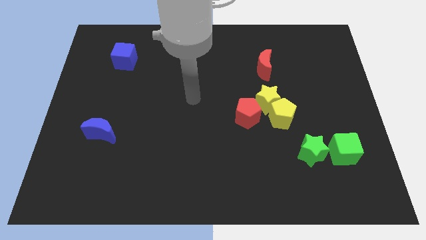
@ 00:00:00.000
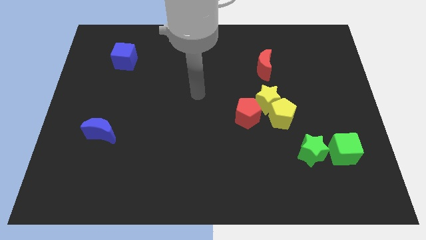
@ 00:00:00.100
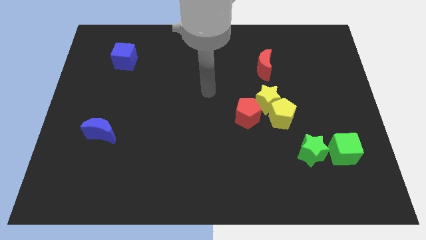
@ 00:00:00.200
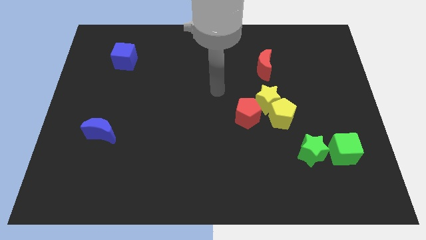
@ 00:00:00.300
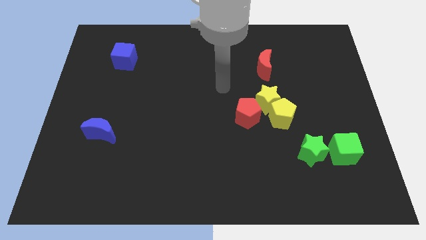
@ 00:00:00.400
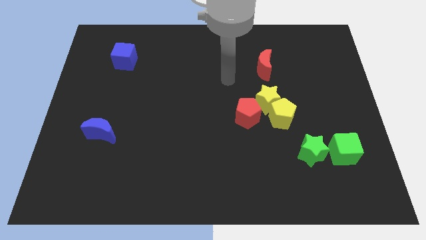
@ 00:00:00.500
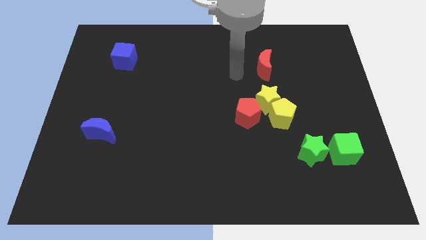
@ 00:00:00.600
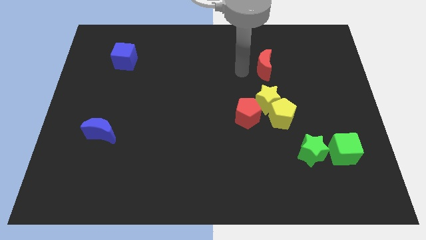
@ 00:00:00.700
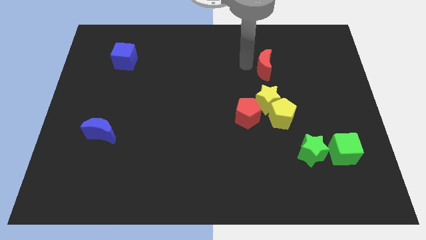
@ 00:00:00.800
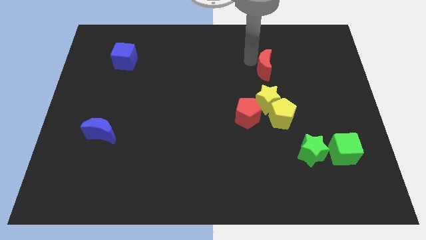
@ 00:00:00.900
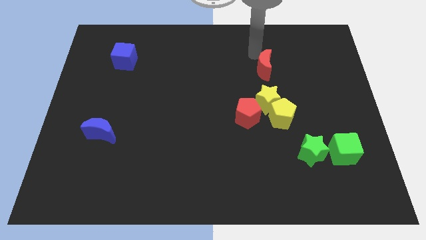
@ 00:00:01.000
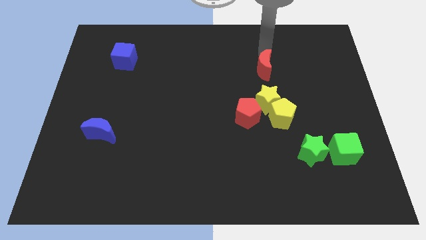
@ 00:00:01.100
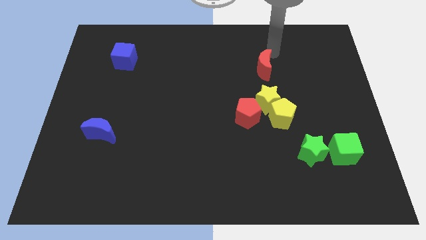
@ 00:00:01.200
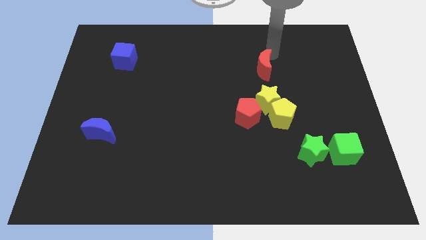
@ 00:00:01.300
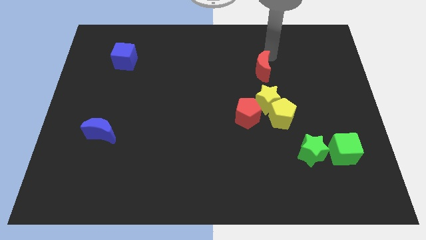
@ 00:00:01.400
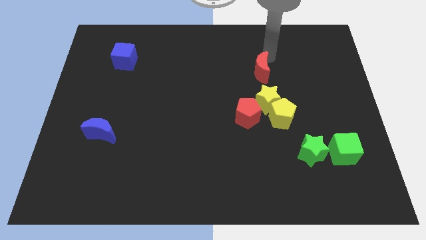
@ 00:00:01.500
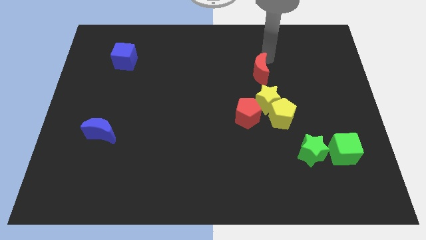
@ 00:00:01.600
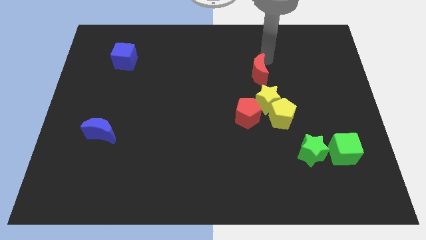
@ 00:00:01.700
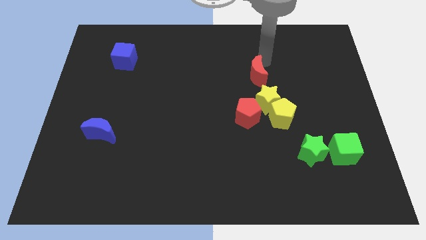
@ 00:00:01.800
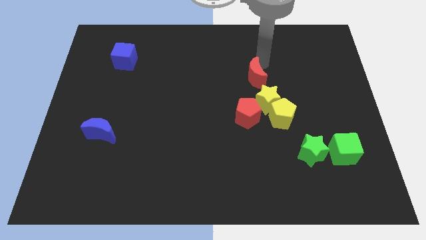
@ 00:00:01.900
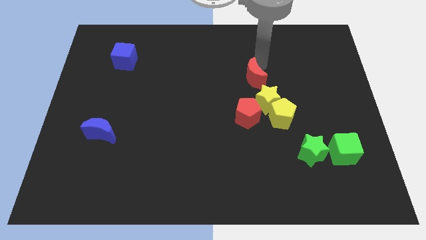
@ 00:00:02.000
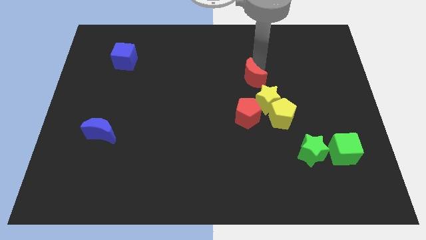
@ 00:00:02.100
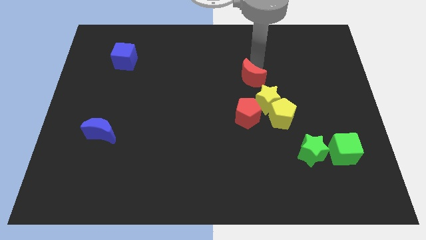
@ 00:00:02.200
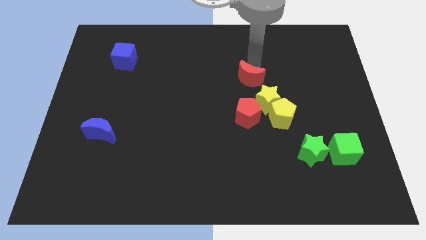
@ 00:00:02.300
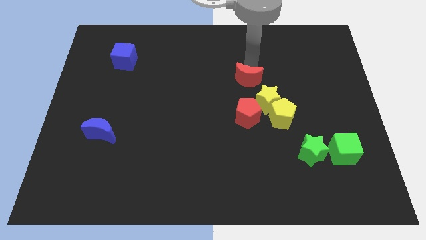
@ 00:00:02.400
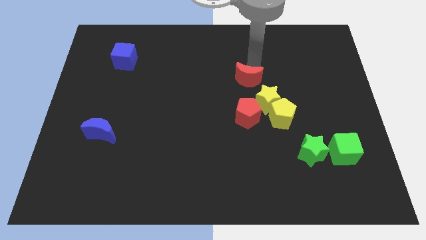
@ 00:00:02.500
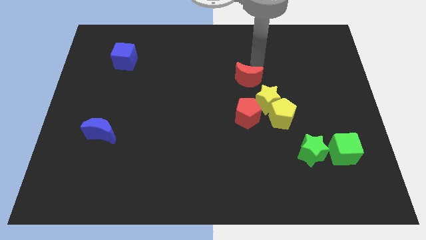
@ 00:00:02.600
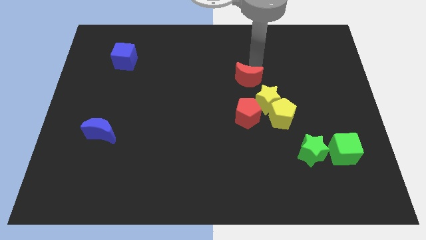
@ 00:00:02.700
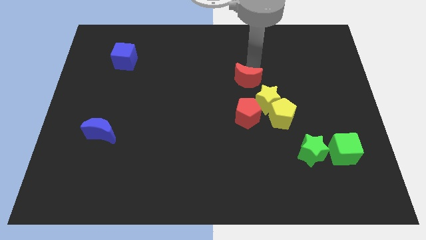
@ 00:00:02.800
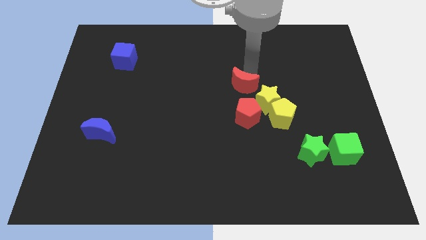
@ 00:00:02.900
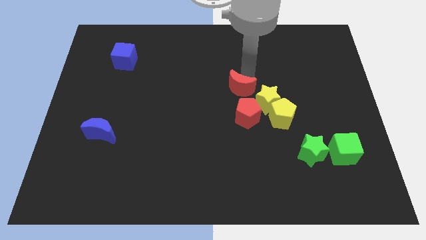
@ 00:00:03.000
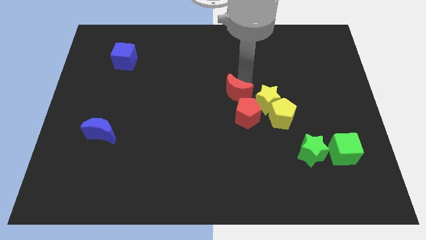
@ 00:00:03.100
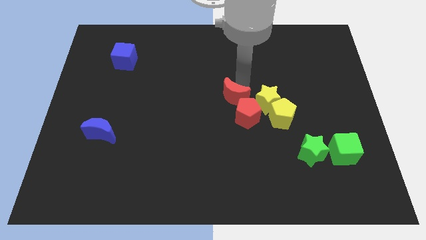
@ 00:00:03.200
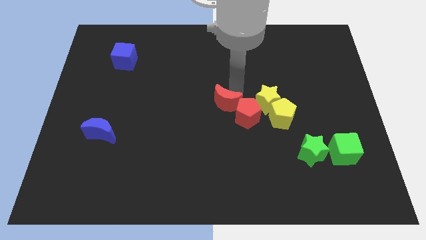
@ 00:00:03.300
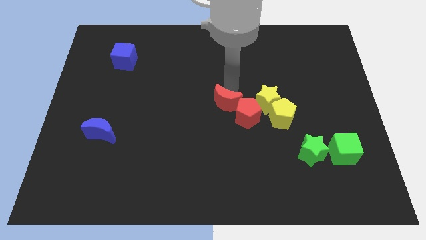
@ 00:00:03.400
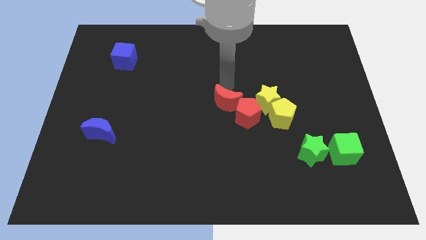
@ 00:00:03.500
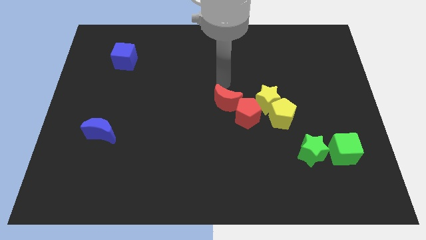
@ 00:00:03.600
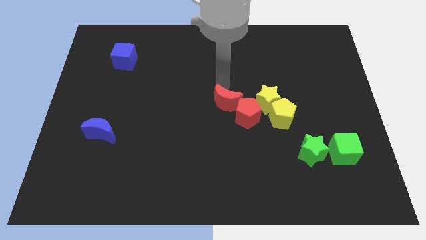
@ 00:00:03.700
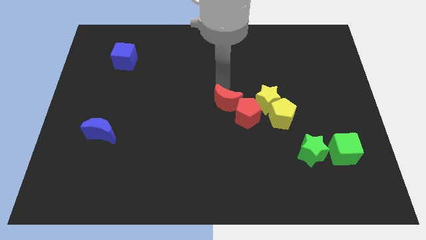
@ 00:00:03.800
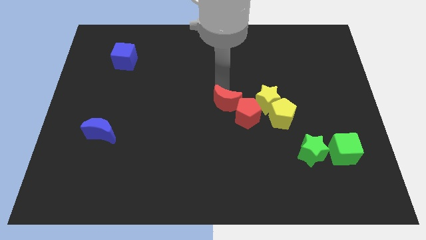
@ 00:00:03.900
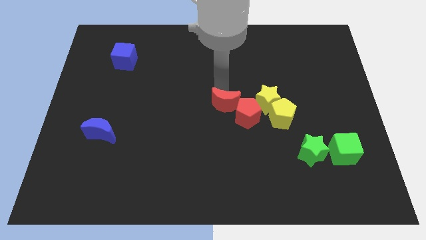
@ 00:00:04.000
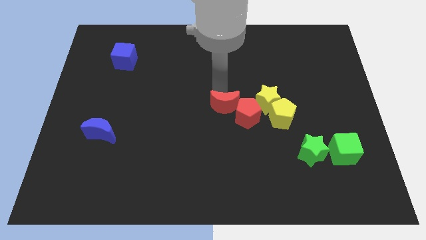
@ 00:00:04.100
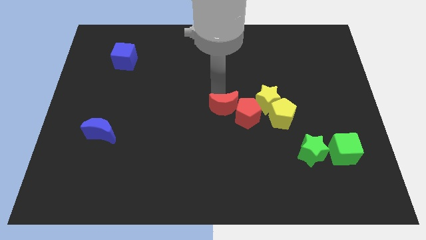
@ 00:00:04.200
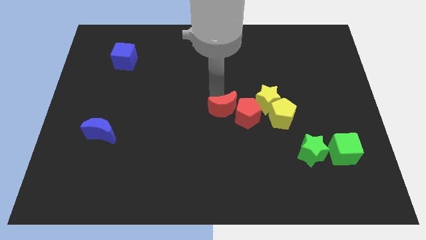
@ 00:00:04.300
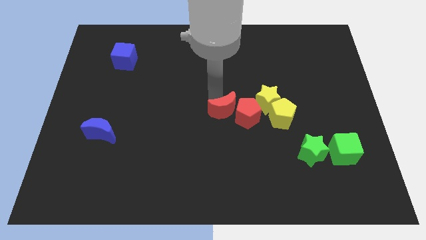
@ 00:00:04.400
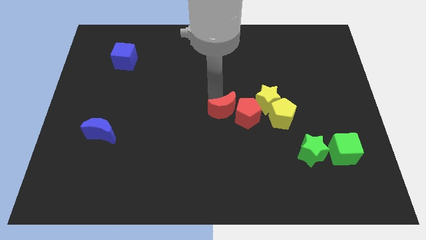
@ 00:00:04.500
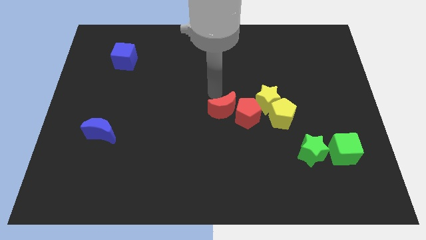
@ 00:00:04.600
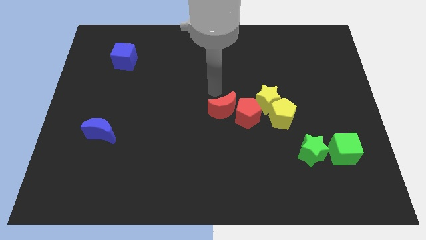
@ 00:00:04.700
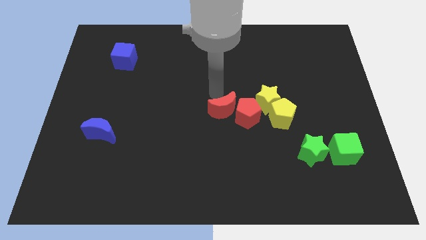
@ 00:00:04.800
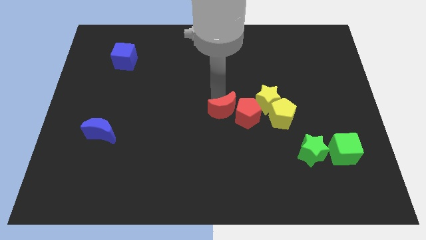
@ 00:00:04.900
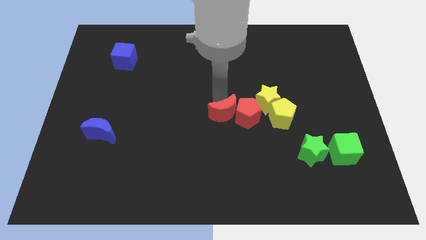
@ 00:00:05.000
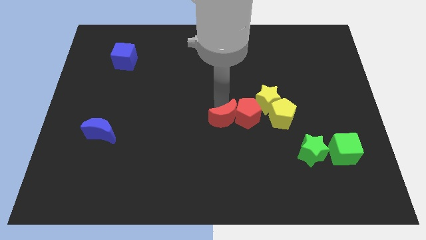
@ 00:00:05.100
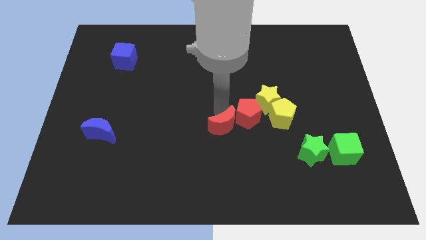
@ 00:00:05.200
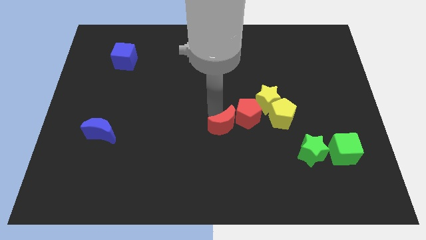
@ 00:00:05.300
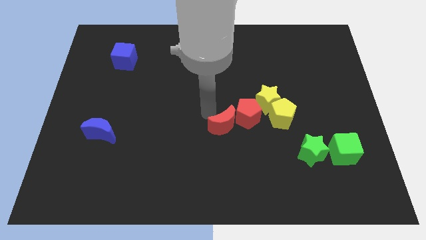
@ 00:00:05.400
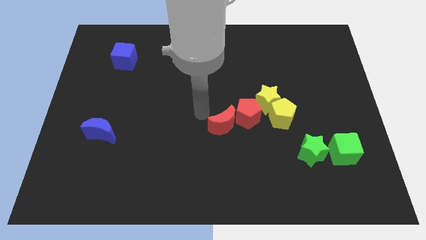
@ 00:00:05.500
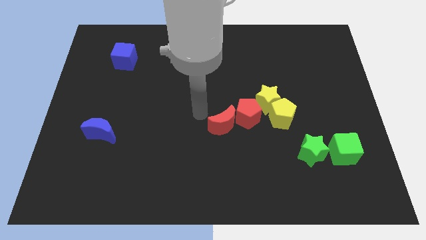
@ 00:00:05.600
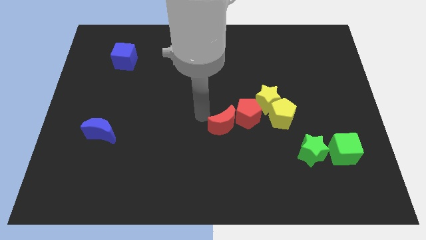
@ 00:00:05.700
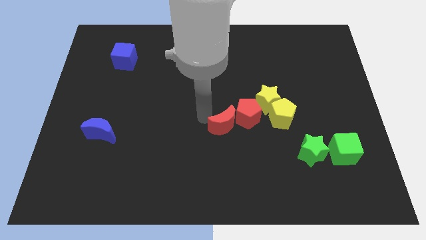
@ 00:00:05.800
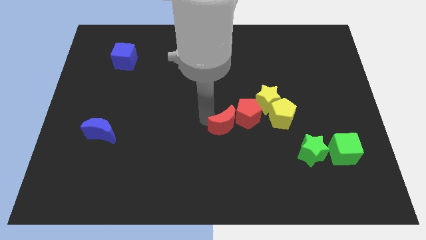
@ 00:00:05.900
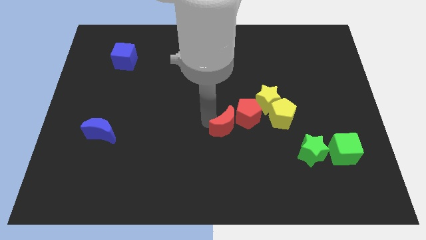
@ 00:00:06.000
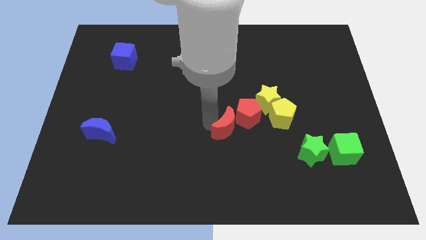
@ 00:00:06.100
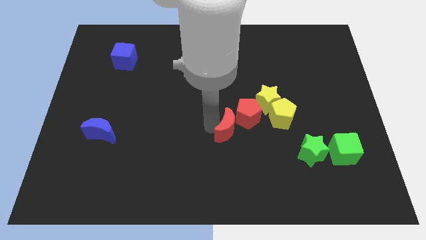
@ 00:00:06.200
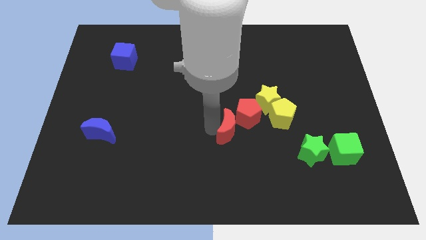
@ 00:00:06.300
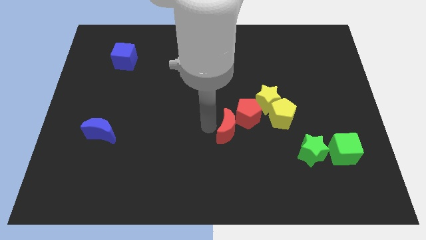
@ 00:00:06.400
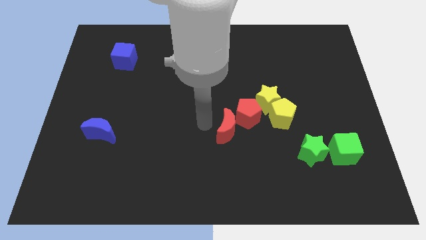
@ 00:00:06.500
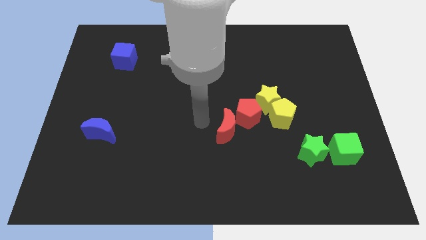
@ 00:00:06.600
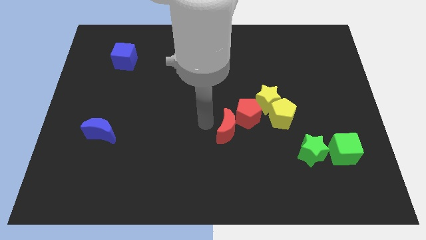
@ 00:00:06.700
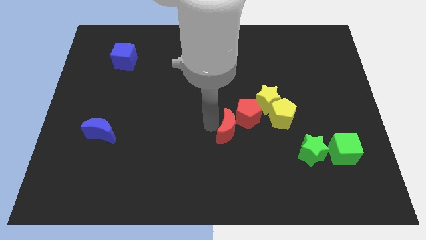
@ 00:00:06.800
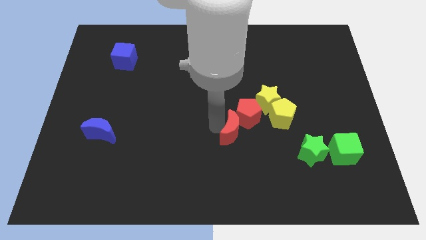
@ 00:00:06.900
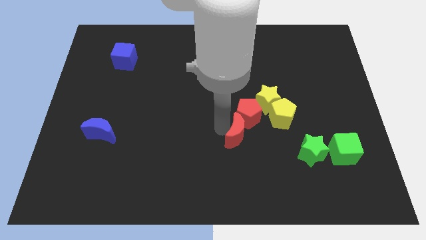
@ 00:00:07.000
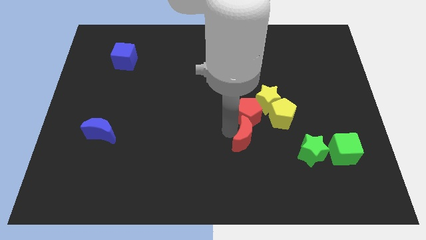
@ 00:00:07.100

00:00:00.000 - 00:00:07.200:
push the red moon left of the green star
